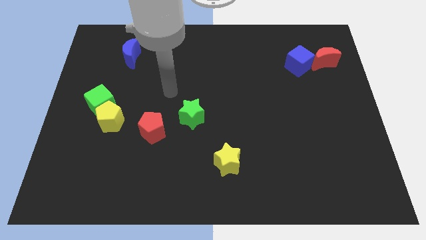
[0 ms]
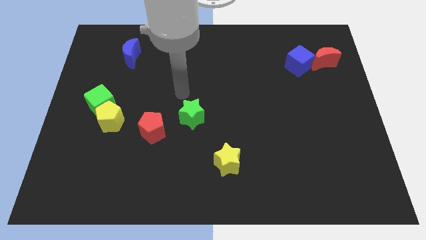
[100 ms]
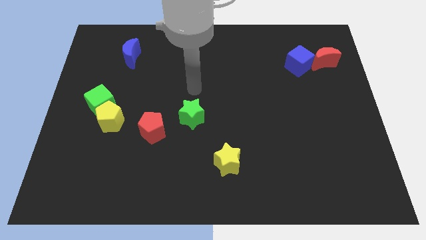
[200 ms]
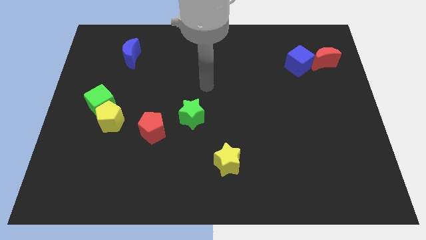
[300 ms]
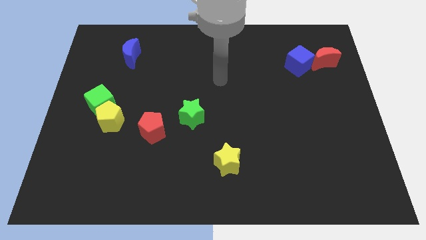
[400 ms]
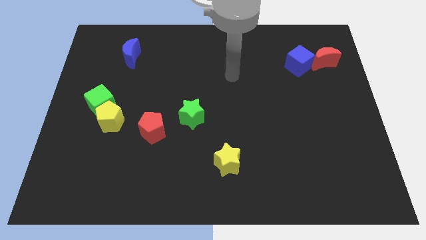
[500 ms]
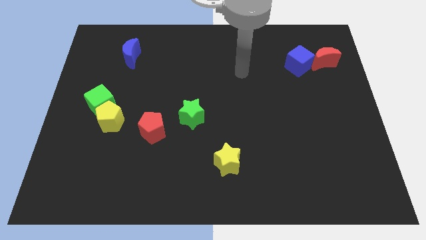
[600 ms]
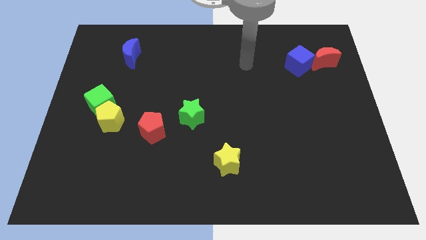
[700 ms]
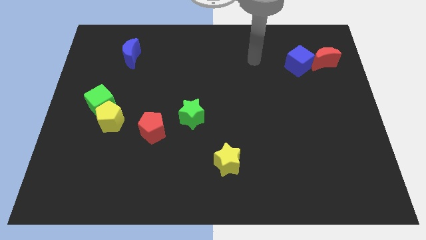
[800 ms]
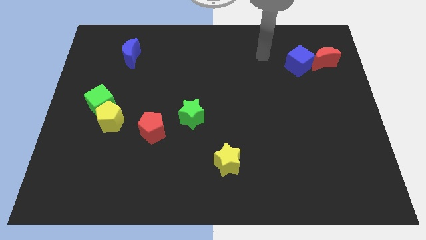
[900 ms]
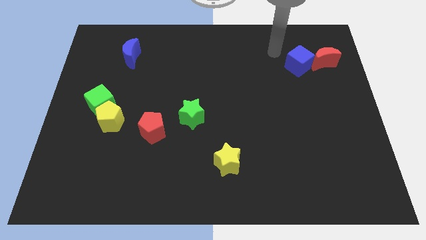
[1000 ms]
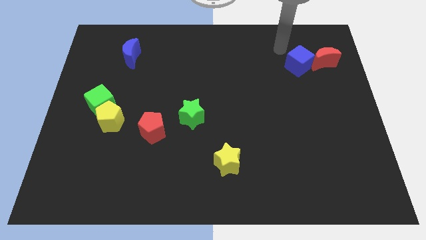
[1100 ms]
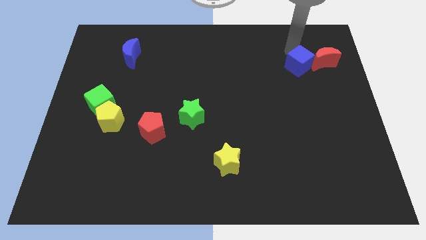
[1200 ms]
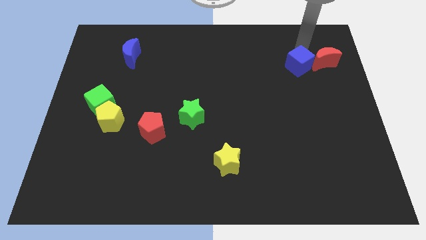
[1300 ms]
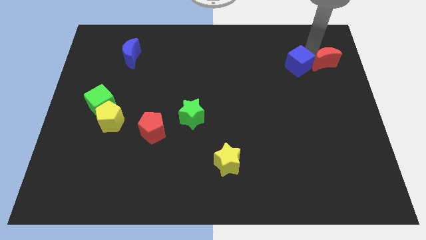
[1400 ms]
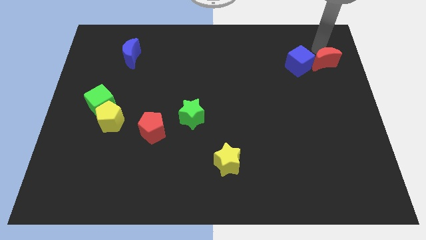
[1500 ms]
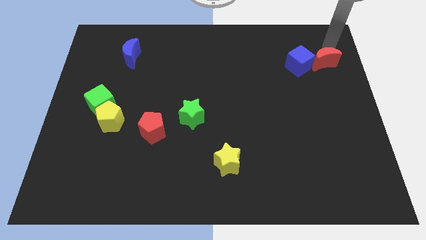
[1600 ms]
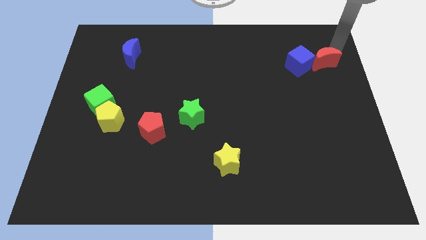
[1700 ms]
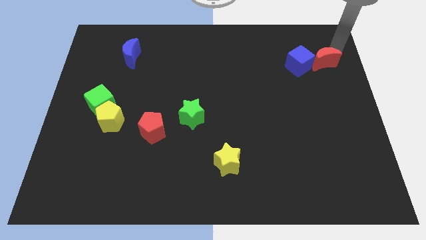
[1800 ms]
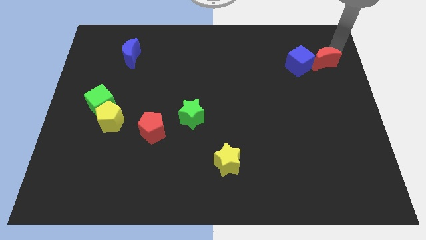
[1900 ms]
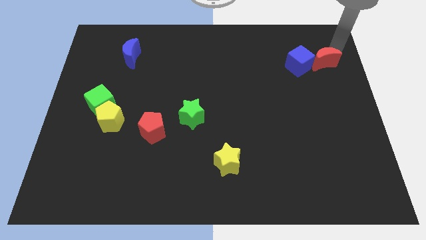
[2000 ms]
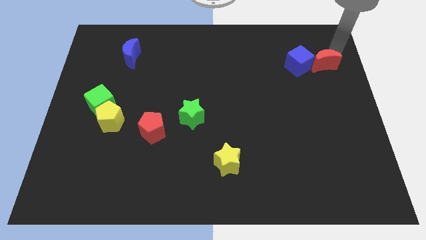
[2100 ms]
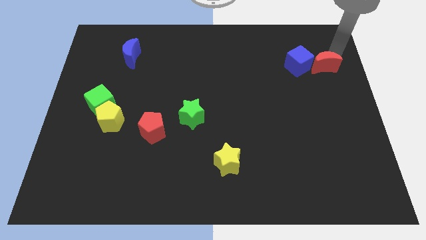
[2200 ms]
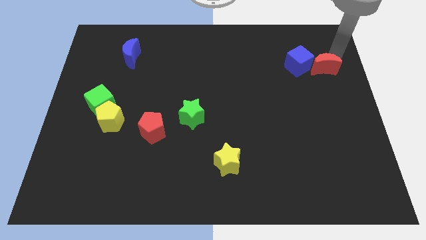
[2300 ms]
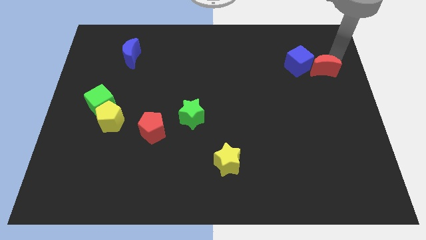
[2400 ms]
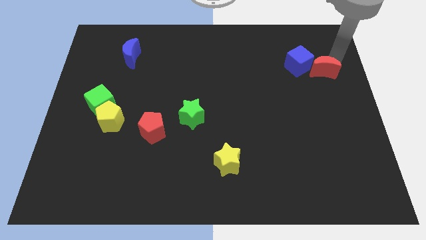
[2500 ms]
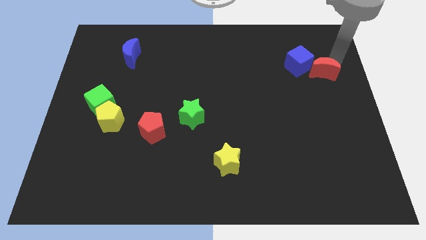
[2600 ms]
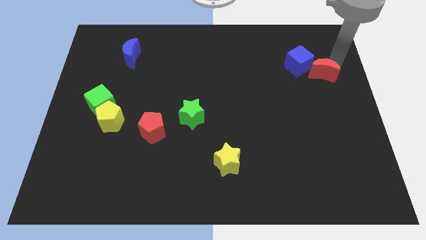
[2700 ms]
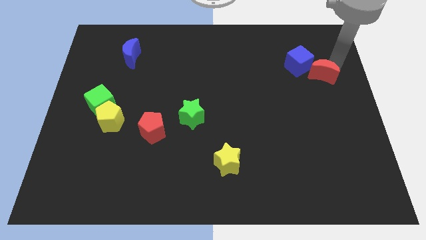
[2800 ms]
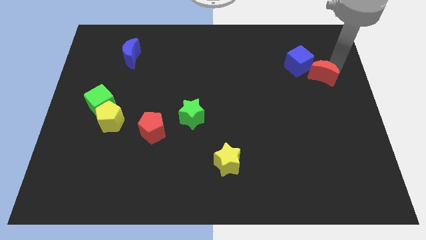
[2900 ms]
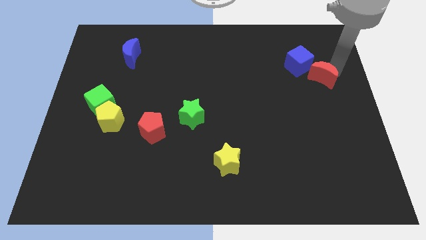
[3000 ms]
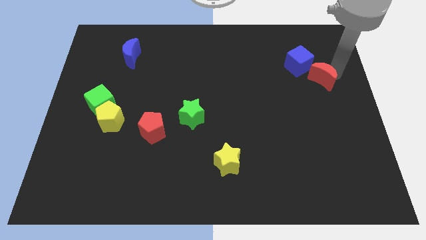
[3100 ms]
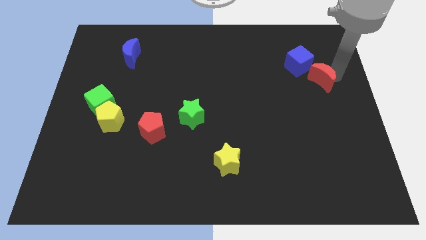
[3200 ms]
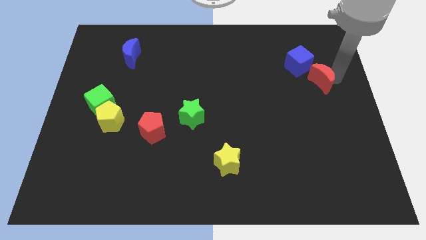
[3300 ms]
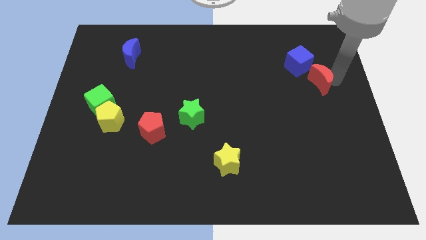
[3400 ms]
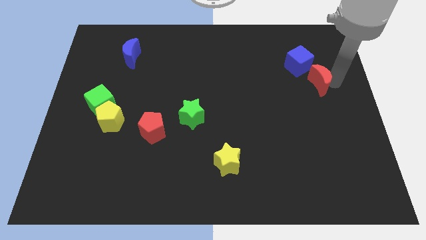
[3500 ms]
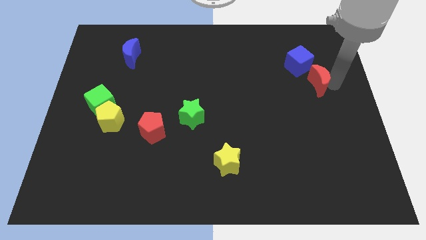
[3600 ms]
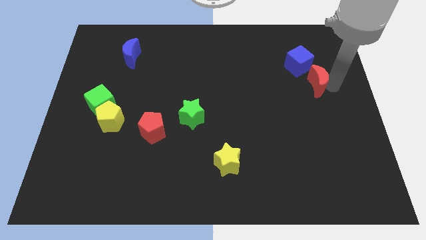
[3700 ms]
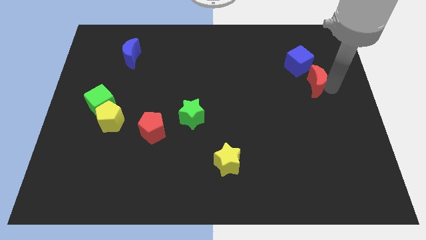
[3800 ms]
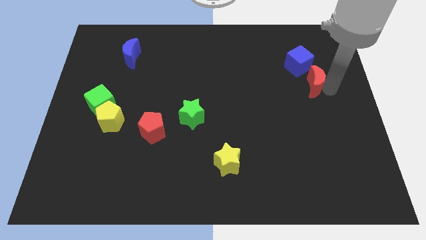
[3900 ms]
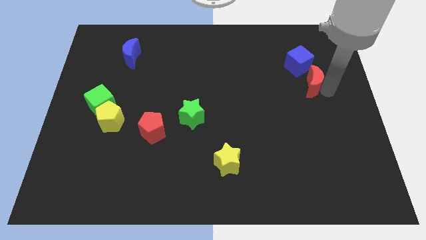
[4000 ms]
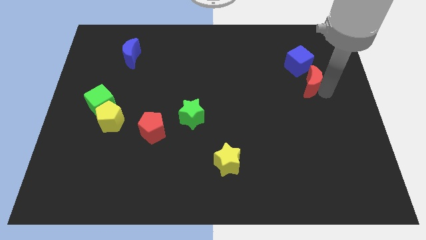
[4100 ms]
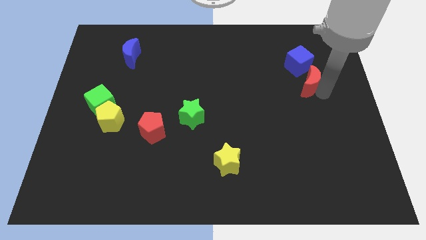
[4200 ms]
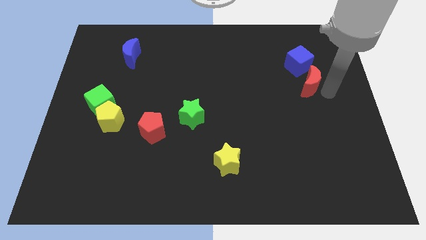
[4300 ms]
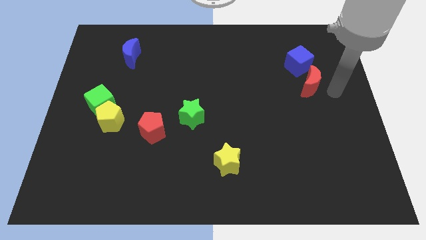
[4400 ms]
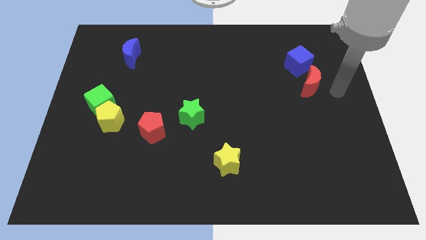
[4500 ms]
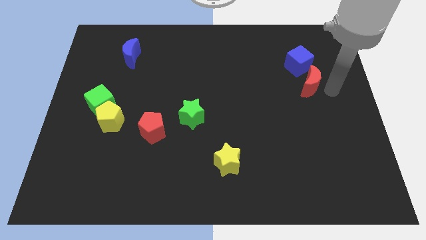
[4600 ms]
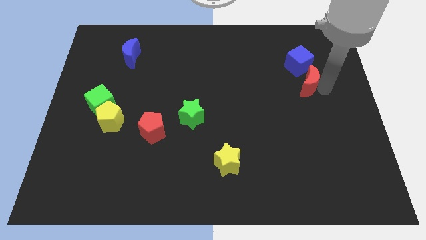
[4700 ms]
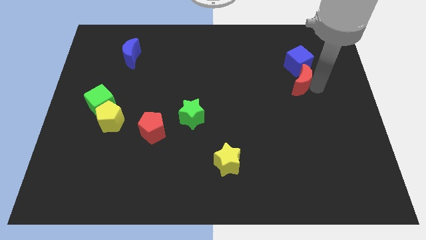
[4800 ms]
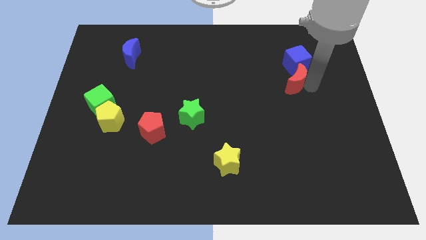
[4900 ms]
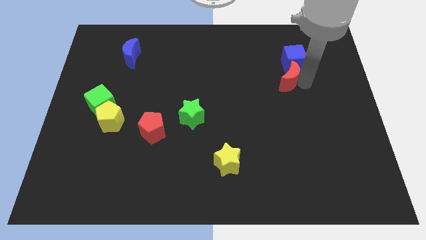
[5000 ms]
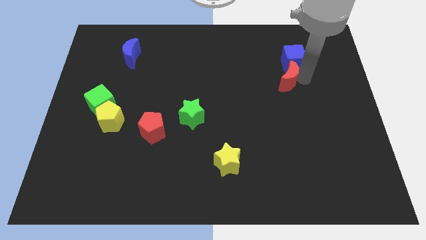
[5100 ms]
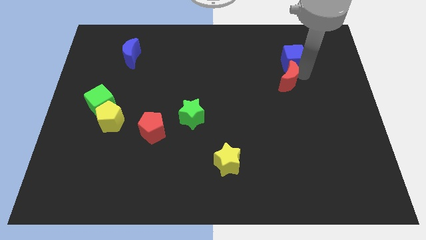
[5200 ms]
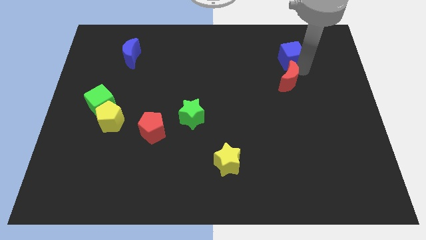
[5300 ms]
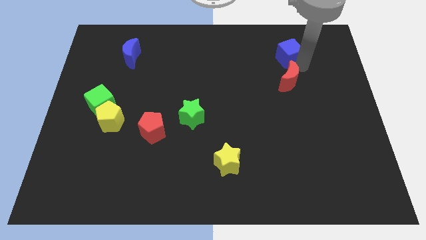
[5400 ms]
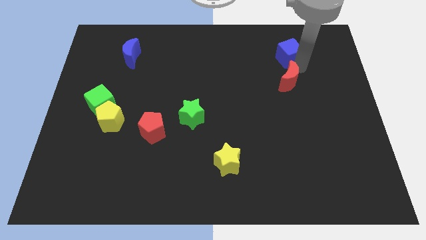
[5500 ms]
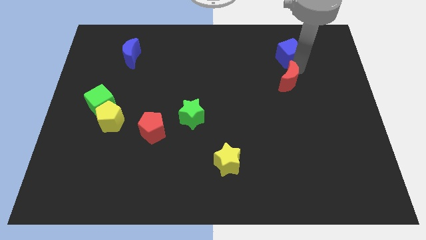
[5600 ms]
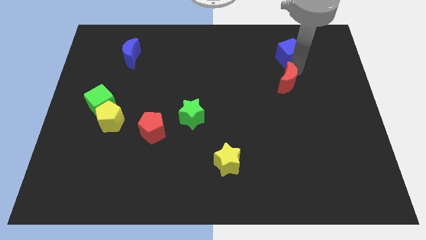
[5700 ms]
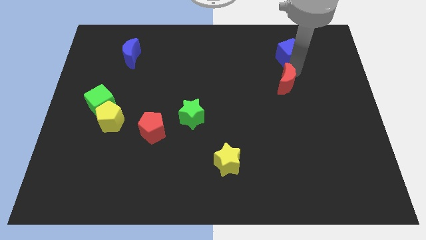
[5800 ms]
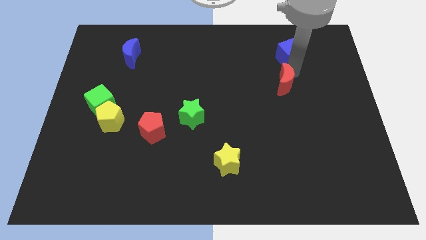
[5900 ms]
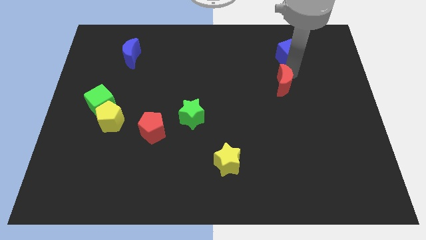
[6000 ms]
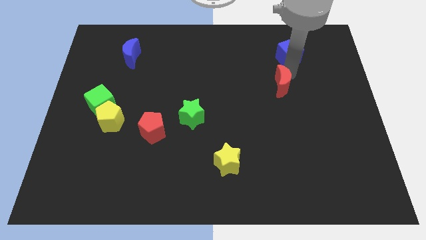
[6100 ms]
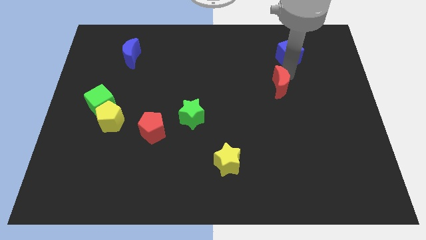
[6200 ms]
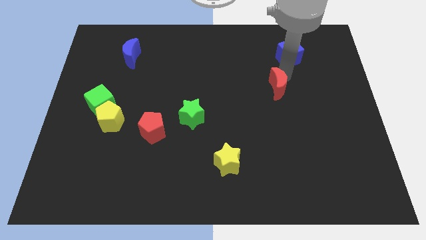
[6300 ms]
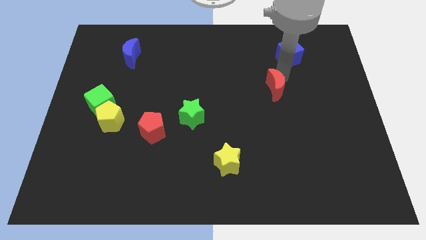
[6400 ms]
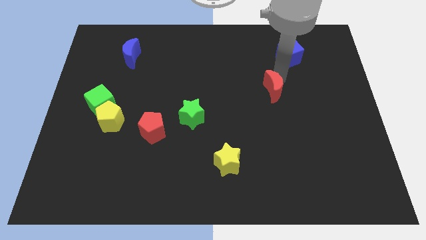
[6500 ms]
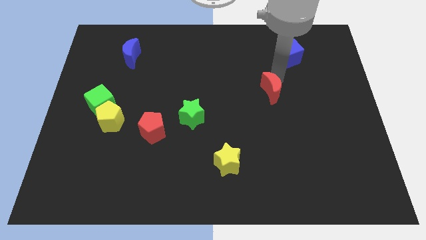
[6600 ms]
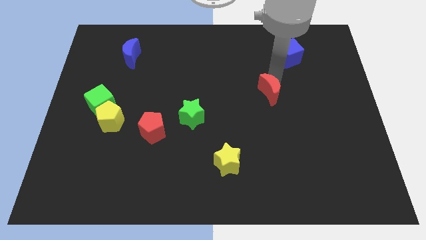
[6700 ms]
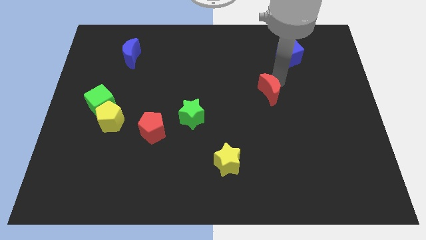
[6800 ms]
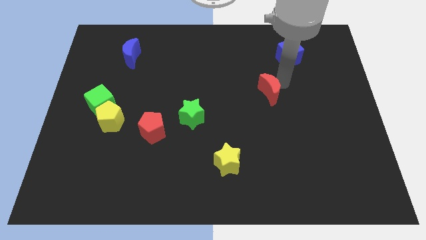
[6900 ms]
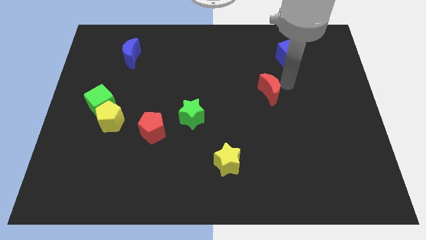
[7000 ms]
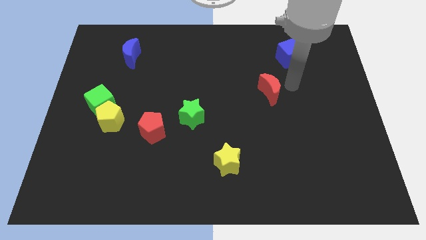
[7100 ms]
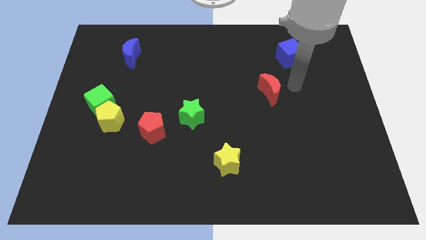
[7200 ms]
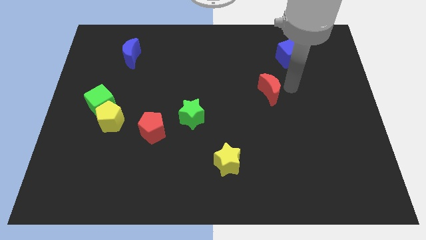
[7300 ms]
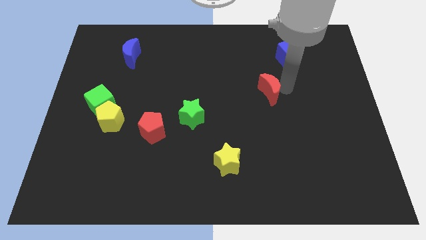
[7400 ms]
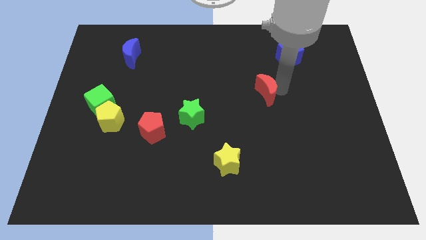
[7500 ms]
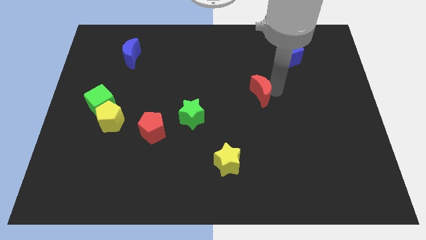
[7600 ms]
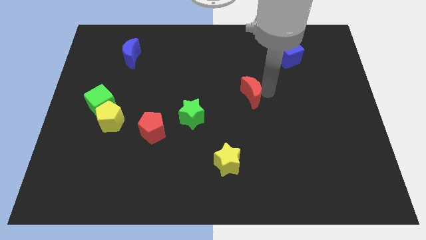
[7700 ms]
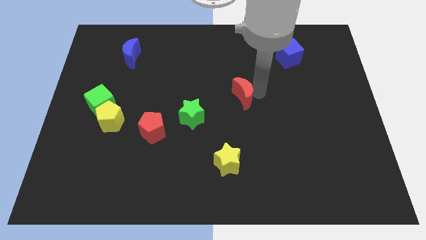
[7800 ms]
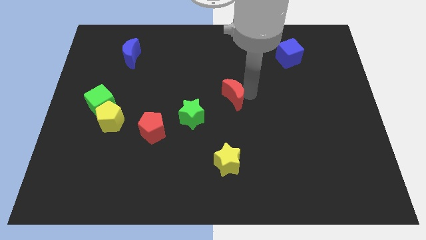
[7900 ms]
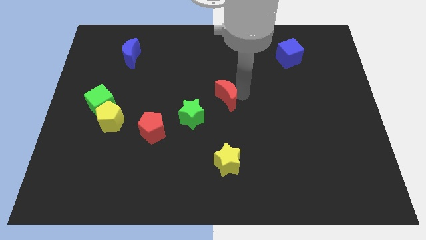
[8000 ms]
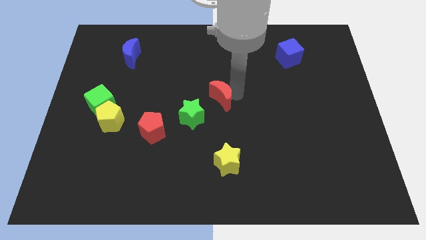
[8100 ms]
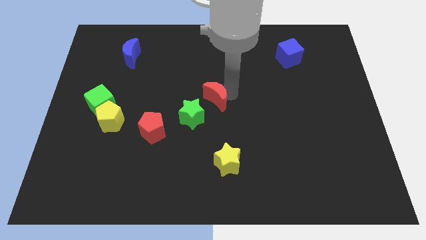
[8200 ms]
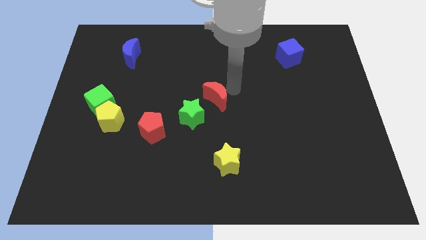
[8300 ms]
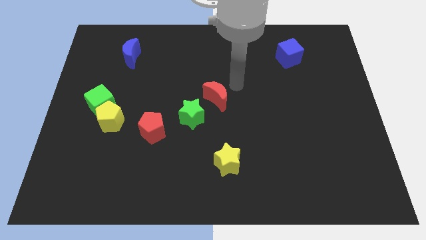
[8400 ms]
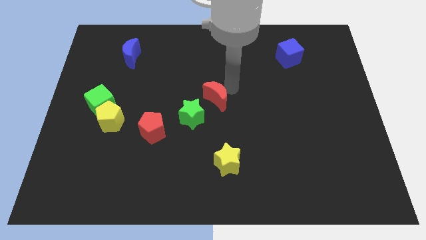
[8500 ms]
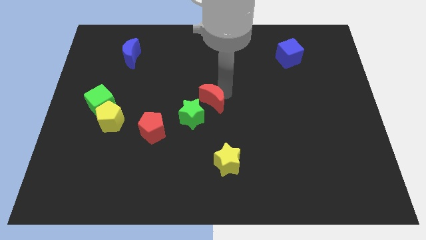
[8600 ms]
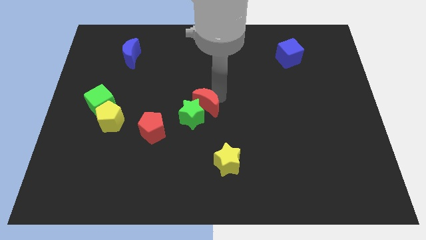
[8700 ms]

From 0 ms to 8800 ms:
move the red moon close to the green star
